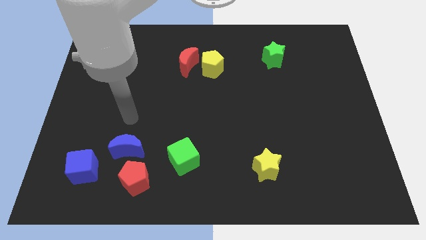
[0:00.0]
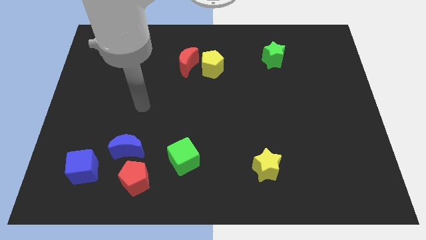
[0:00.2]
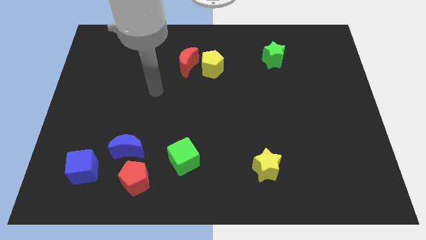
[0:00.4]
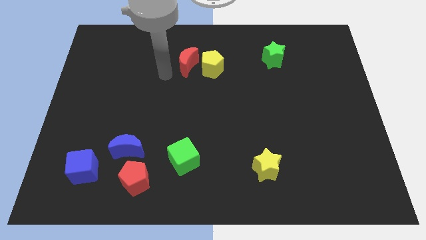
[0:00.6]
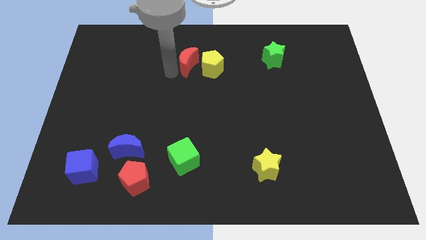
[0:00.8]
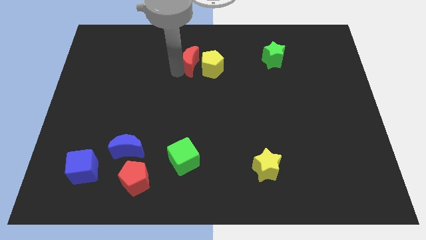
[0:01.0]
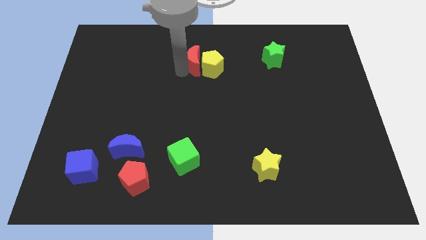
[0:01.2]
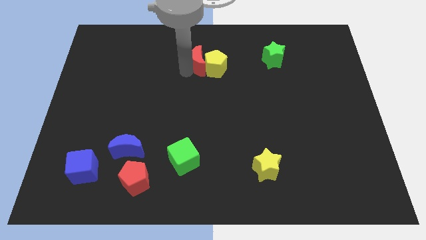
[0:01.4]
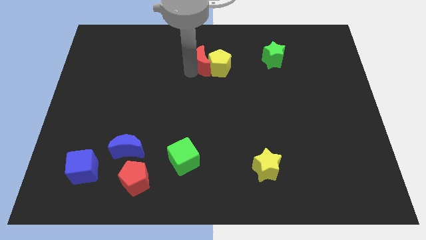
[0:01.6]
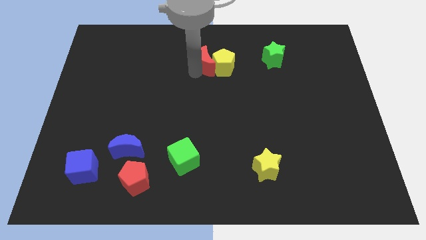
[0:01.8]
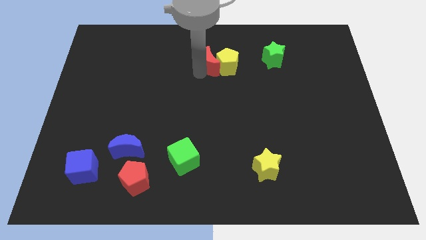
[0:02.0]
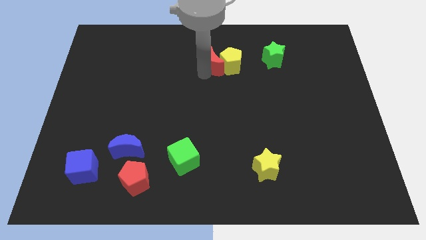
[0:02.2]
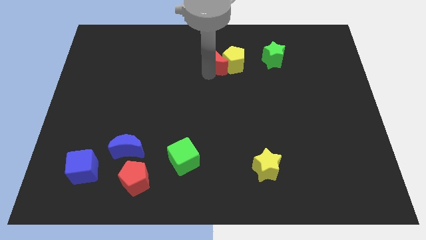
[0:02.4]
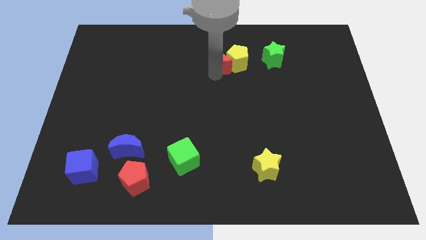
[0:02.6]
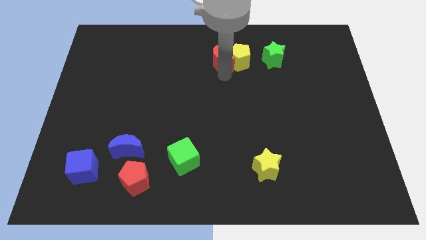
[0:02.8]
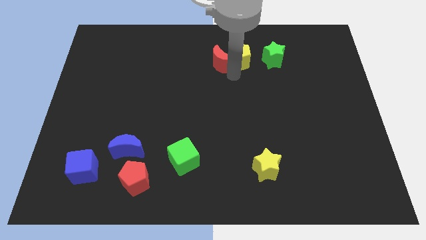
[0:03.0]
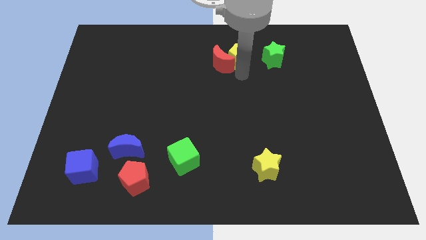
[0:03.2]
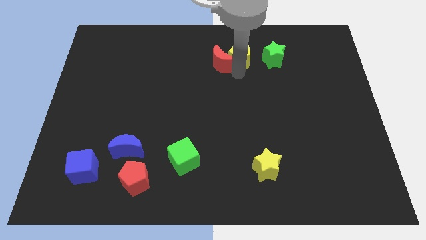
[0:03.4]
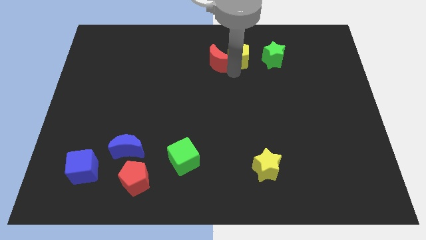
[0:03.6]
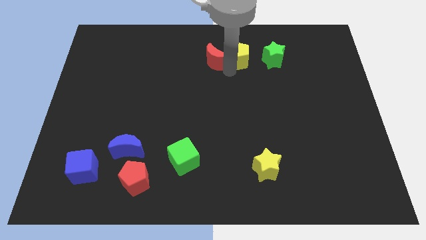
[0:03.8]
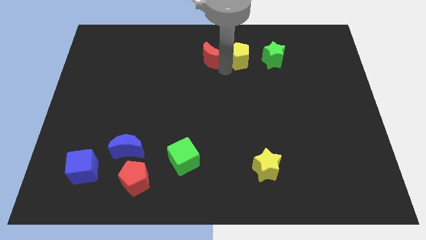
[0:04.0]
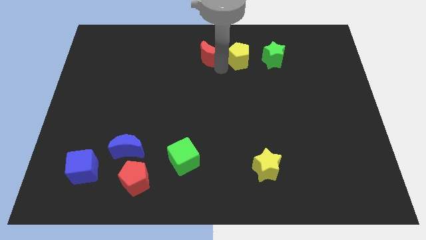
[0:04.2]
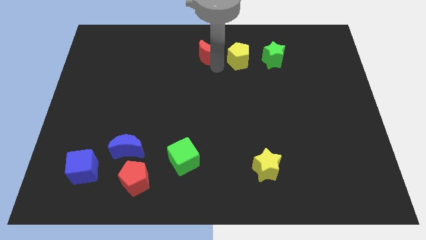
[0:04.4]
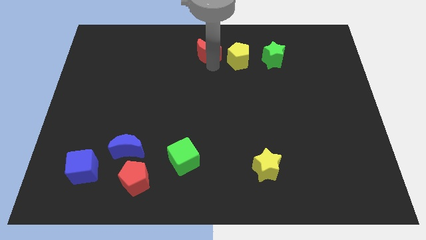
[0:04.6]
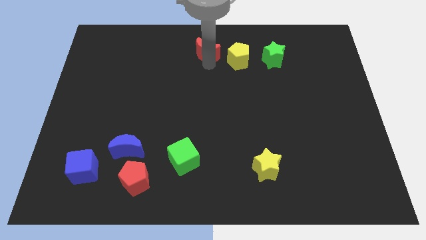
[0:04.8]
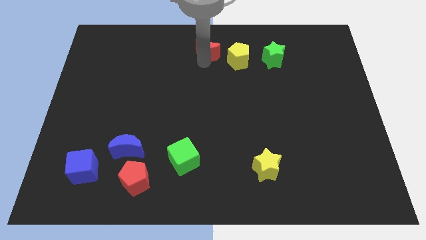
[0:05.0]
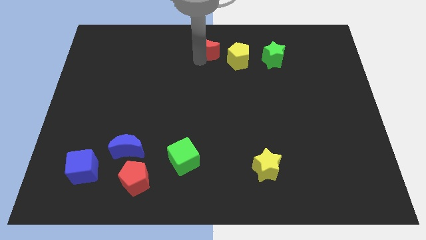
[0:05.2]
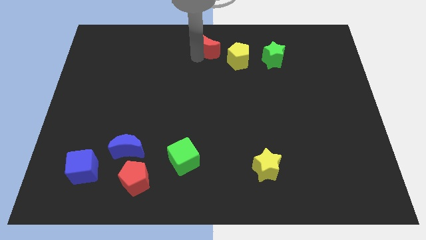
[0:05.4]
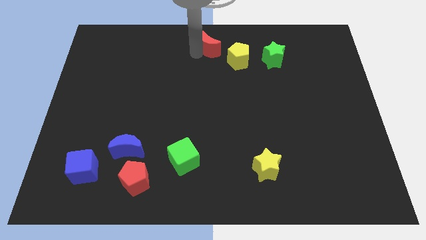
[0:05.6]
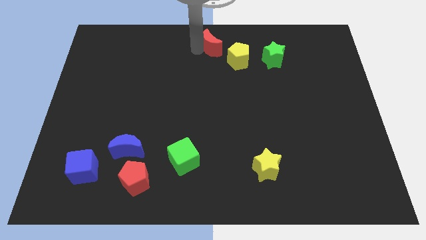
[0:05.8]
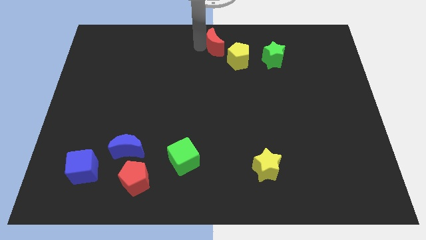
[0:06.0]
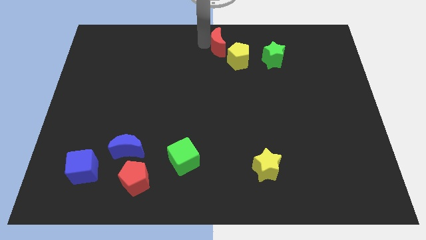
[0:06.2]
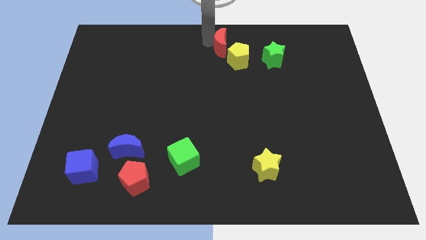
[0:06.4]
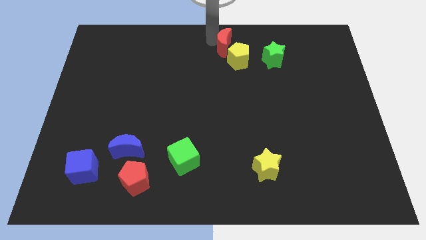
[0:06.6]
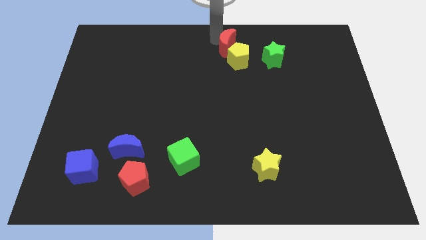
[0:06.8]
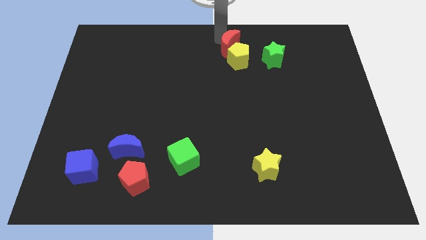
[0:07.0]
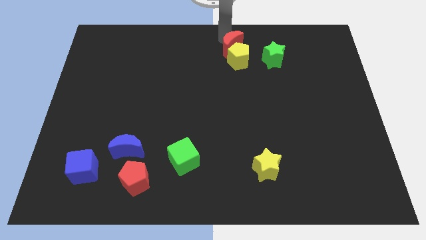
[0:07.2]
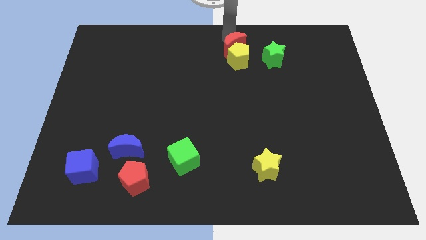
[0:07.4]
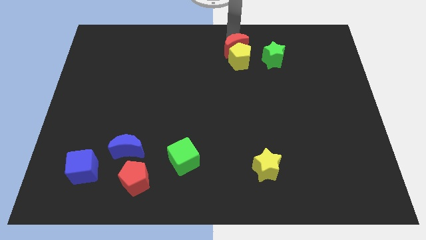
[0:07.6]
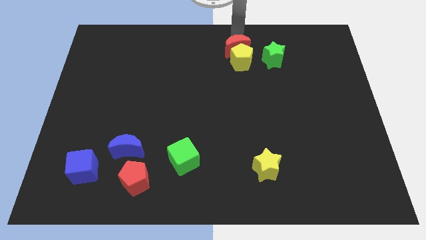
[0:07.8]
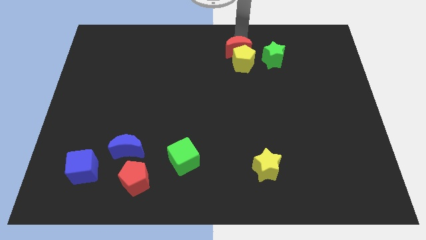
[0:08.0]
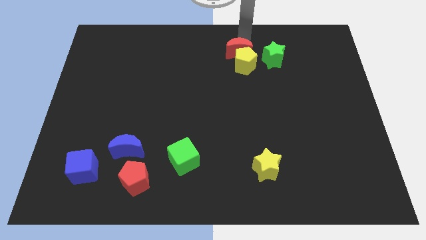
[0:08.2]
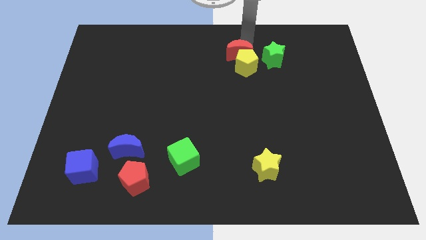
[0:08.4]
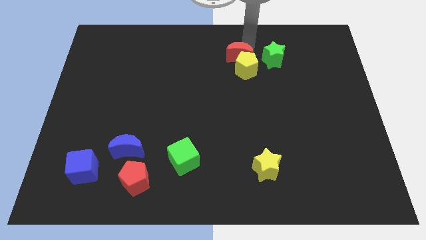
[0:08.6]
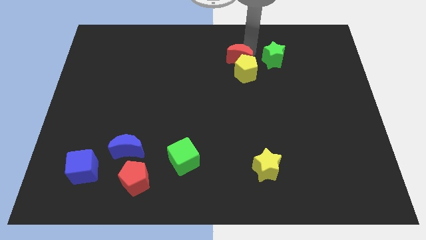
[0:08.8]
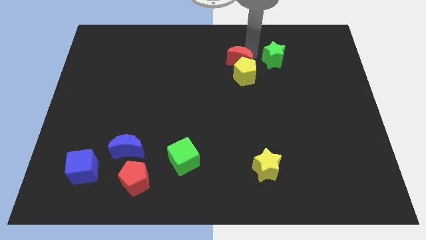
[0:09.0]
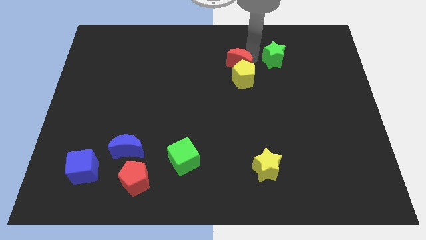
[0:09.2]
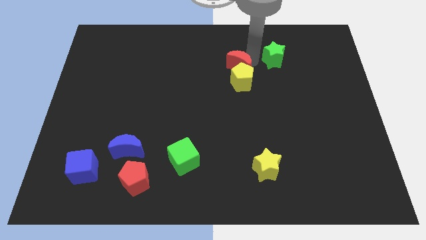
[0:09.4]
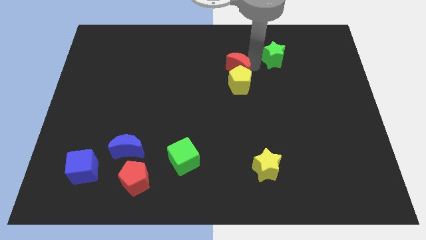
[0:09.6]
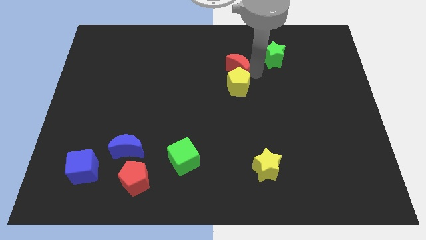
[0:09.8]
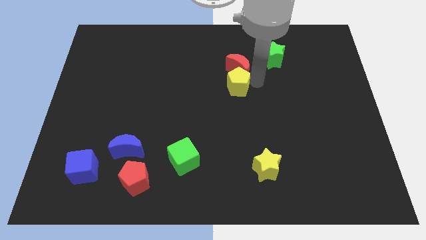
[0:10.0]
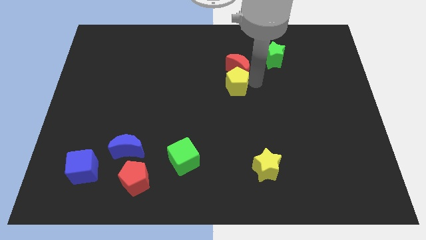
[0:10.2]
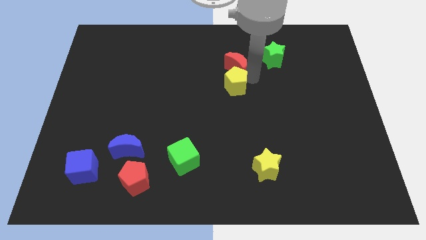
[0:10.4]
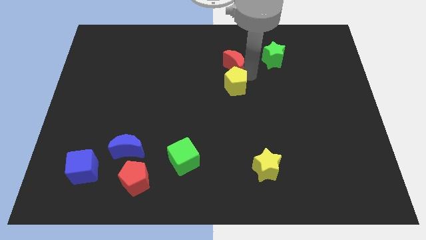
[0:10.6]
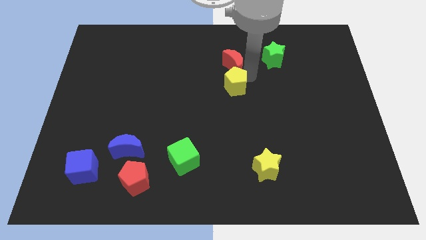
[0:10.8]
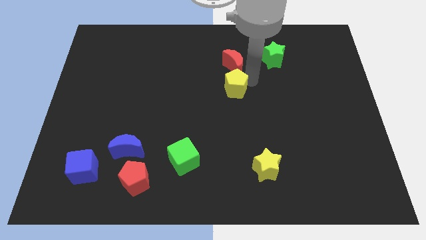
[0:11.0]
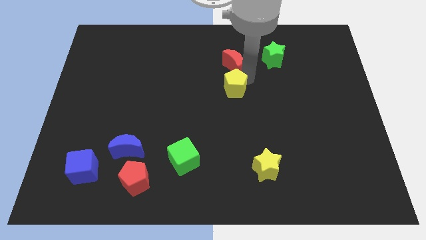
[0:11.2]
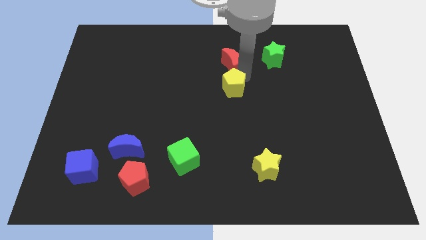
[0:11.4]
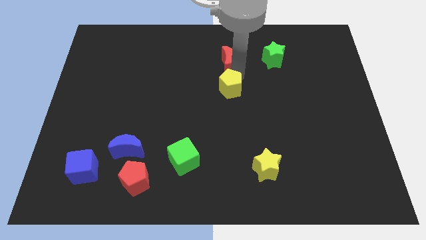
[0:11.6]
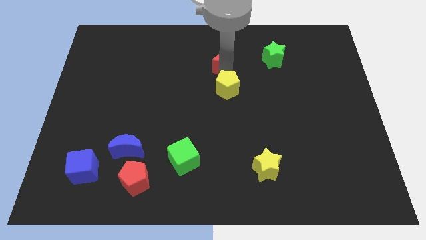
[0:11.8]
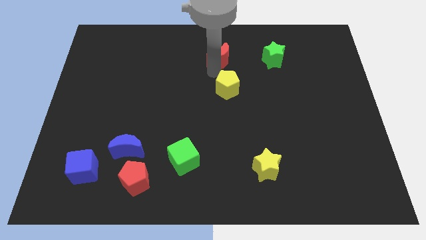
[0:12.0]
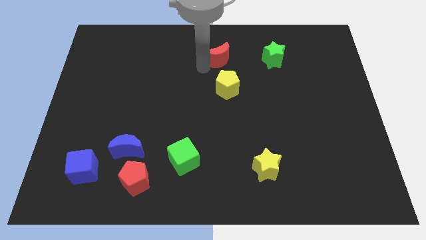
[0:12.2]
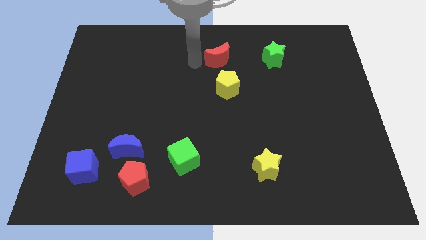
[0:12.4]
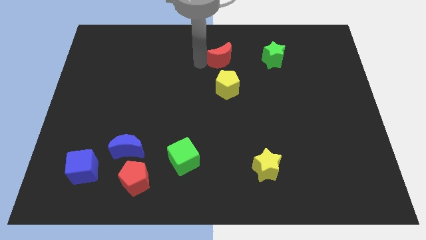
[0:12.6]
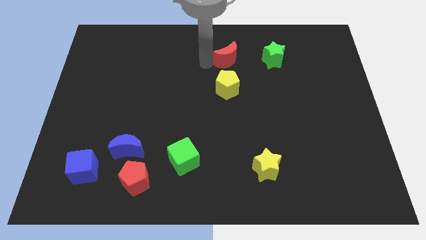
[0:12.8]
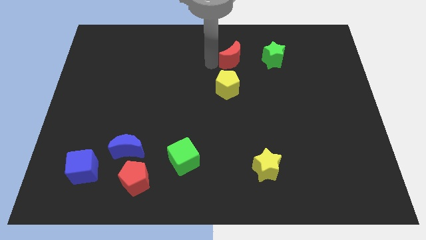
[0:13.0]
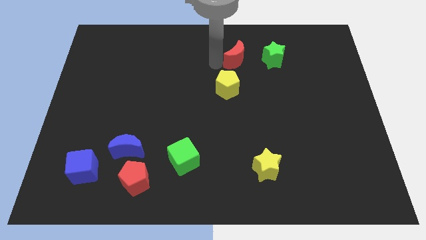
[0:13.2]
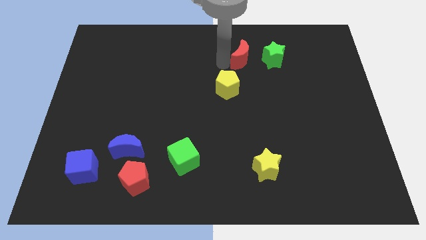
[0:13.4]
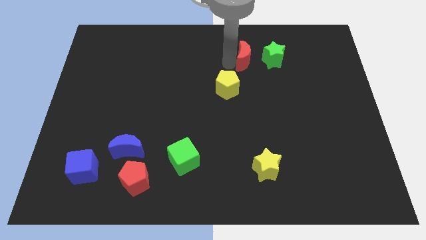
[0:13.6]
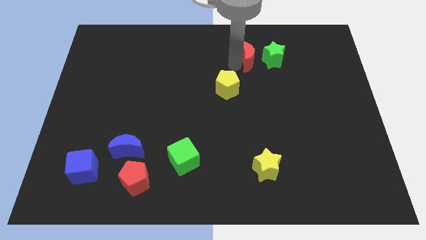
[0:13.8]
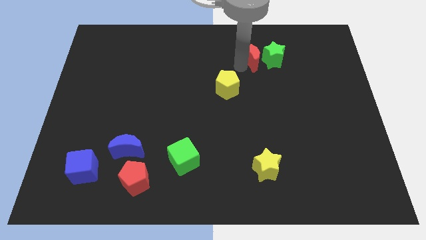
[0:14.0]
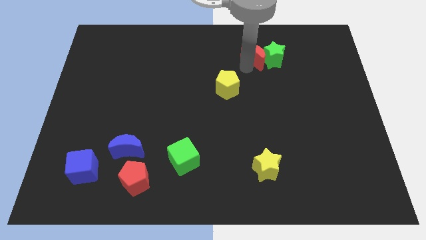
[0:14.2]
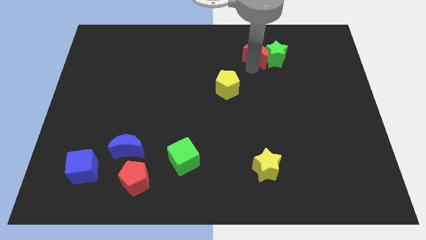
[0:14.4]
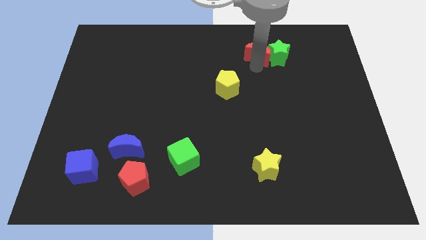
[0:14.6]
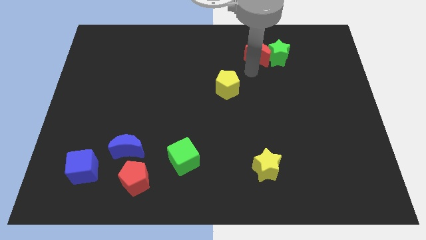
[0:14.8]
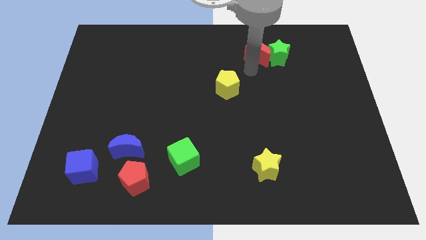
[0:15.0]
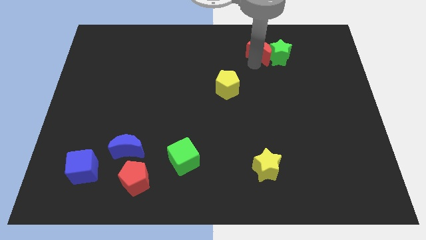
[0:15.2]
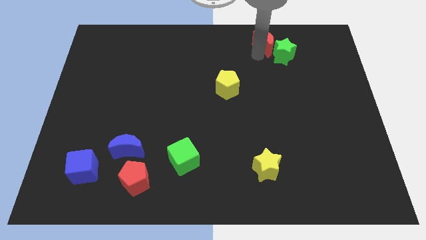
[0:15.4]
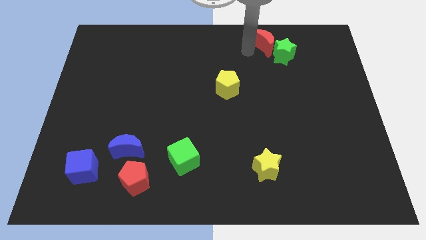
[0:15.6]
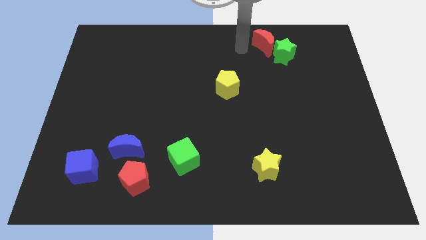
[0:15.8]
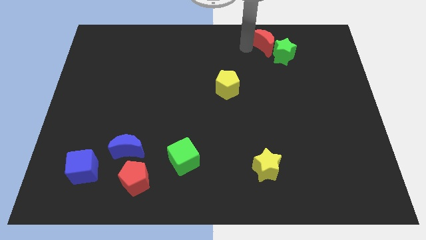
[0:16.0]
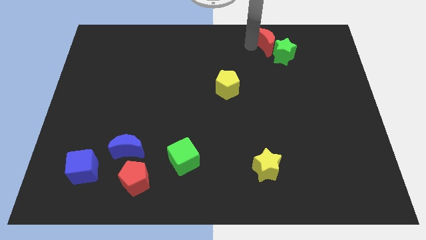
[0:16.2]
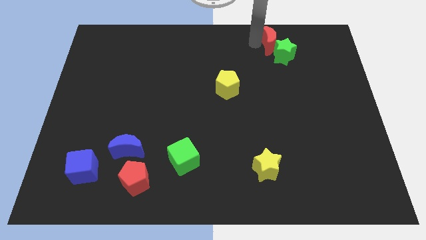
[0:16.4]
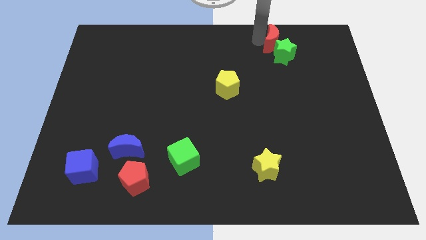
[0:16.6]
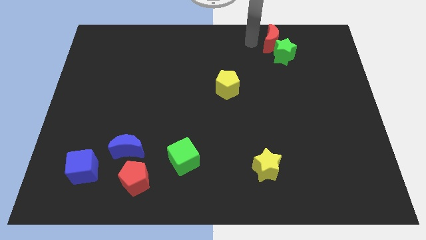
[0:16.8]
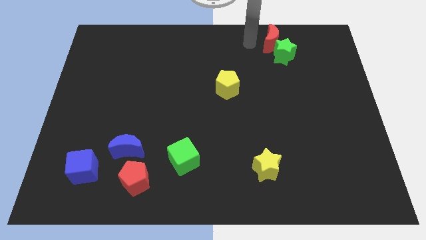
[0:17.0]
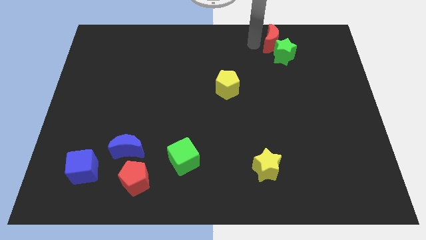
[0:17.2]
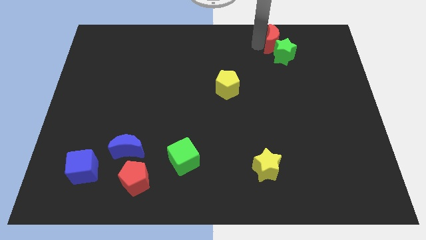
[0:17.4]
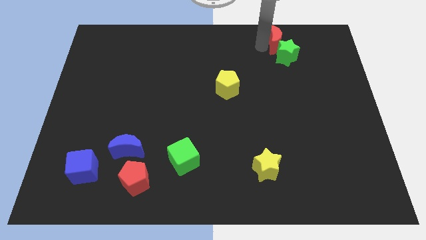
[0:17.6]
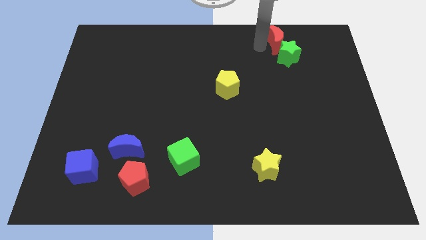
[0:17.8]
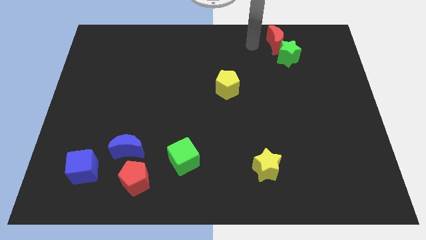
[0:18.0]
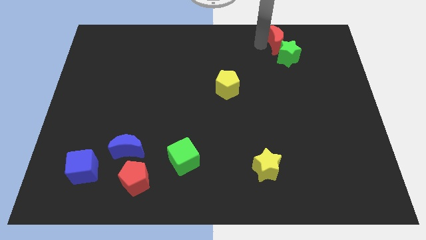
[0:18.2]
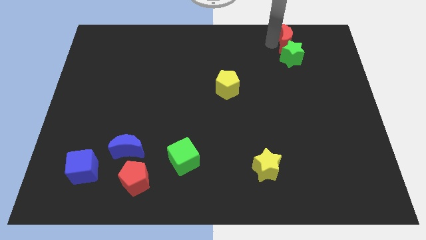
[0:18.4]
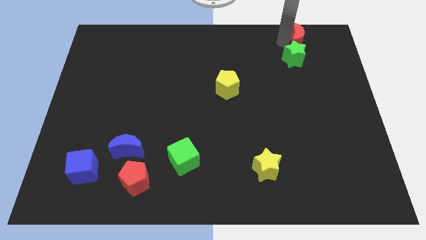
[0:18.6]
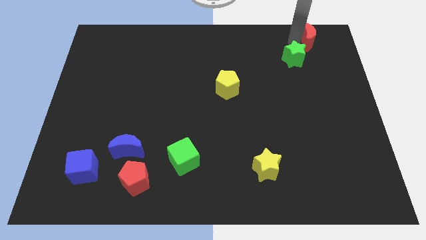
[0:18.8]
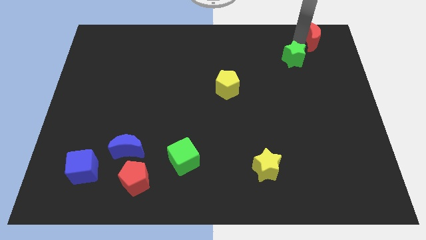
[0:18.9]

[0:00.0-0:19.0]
slide the red moon to the top right of the board
